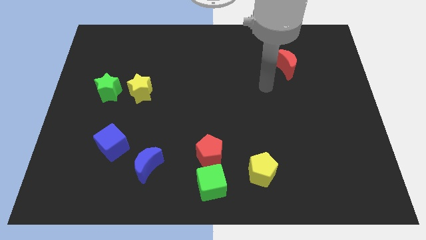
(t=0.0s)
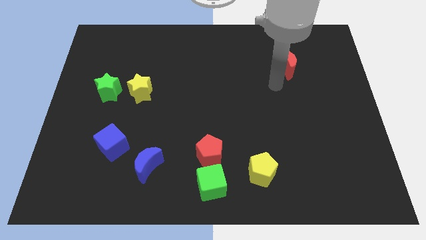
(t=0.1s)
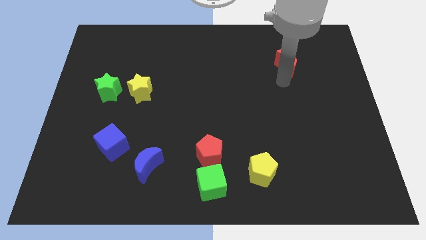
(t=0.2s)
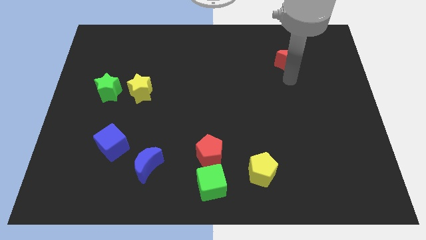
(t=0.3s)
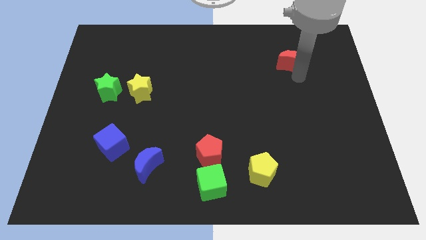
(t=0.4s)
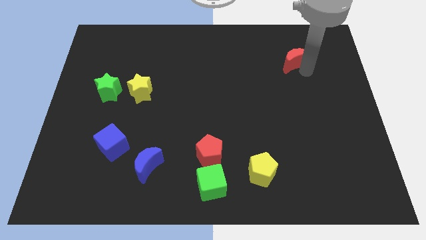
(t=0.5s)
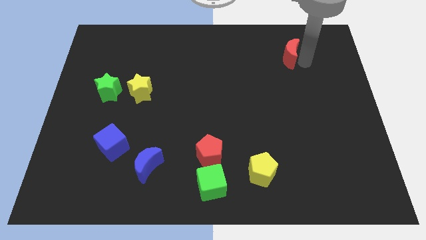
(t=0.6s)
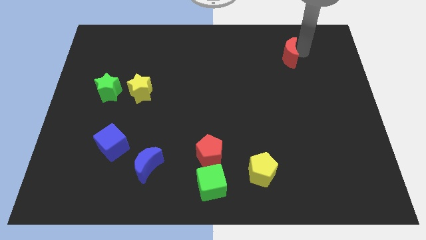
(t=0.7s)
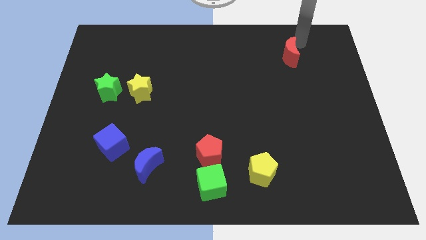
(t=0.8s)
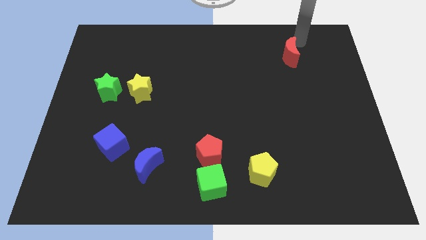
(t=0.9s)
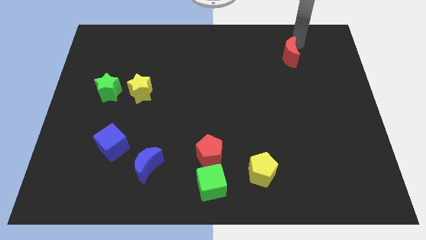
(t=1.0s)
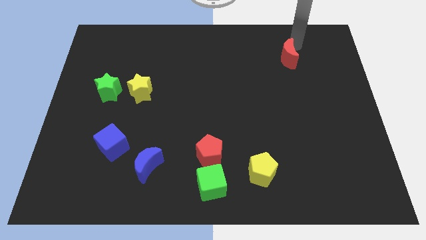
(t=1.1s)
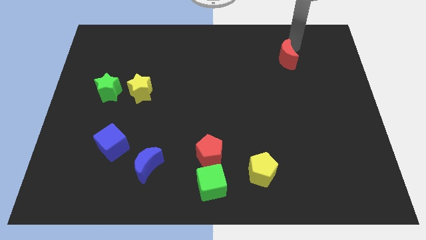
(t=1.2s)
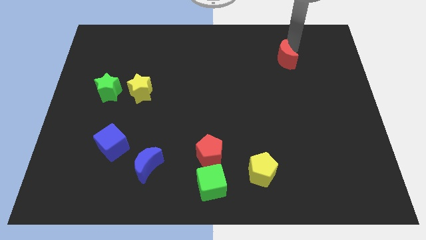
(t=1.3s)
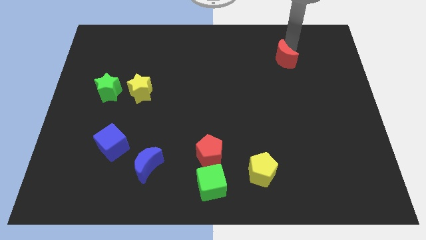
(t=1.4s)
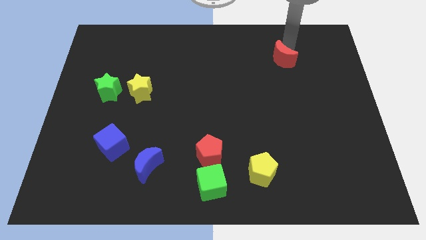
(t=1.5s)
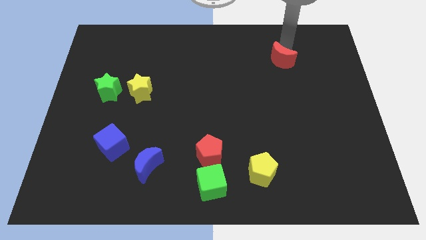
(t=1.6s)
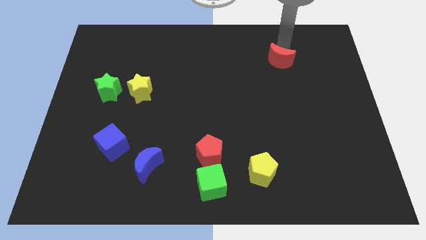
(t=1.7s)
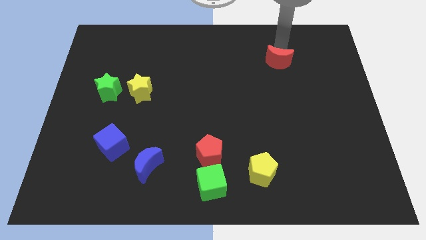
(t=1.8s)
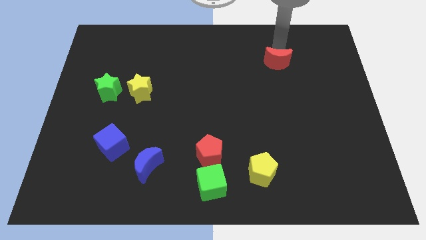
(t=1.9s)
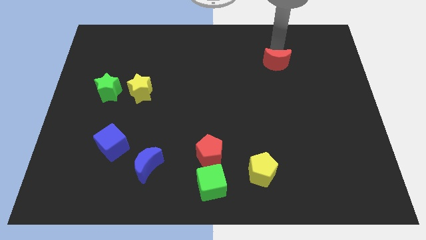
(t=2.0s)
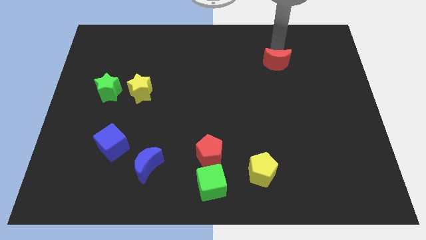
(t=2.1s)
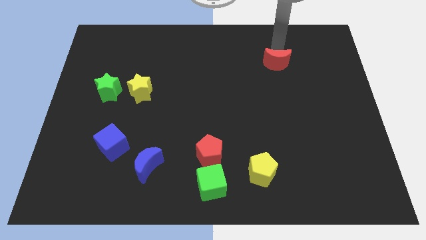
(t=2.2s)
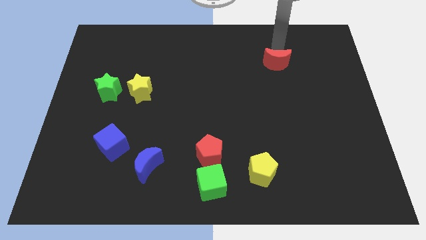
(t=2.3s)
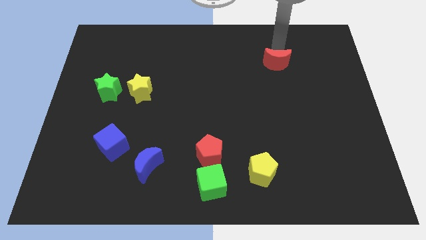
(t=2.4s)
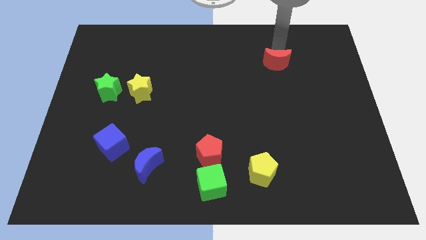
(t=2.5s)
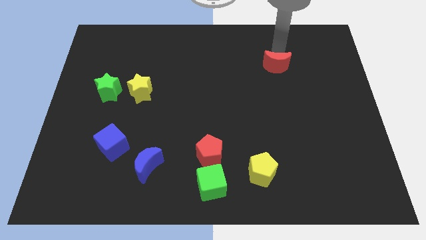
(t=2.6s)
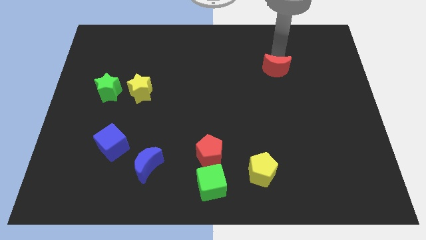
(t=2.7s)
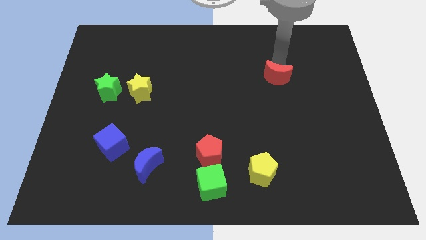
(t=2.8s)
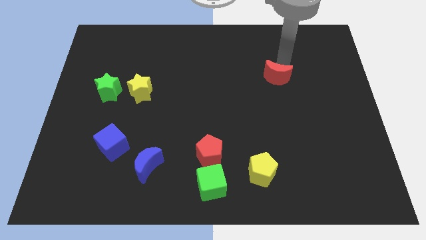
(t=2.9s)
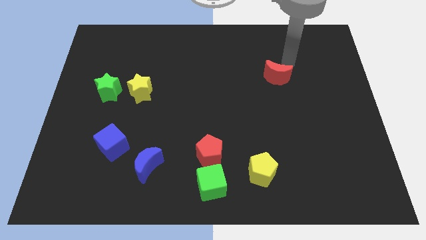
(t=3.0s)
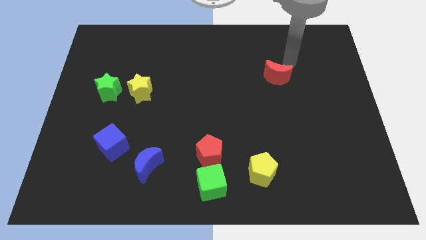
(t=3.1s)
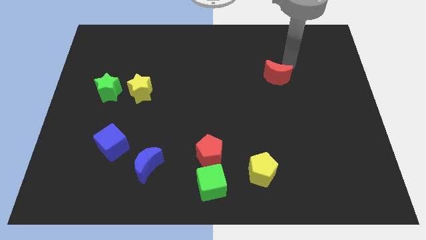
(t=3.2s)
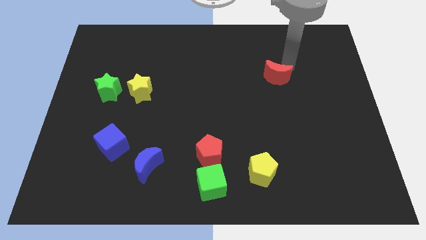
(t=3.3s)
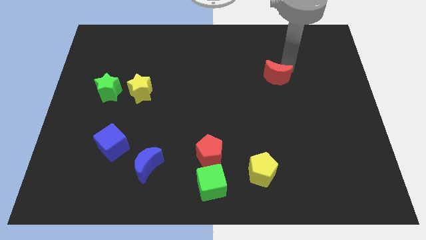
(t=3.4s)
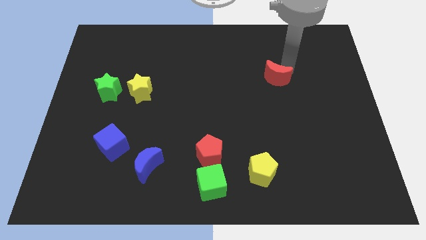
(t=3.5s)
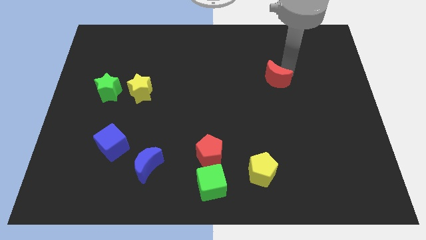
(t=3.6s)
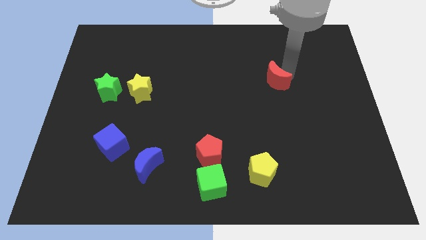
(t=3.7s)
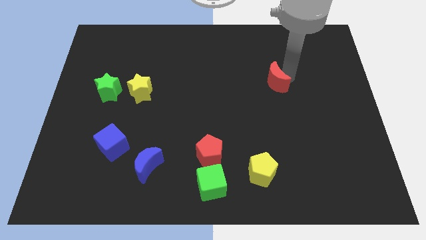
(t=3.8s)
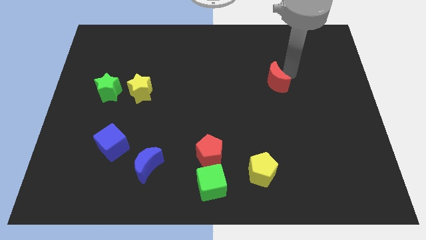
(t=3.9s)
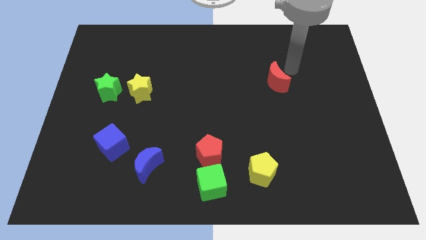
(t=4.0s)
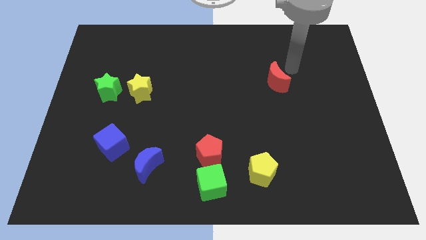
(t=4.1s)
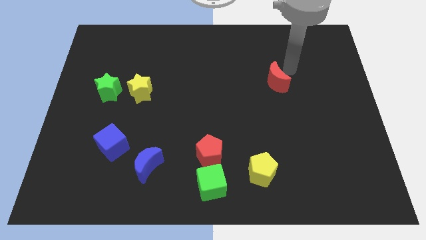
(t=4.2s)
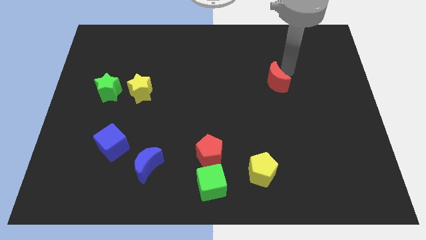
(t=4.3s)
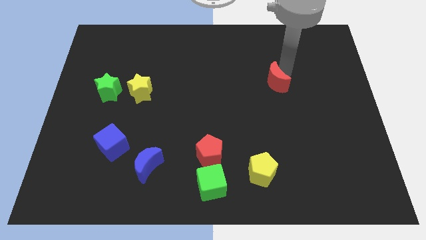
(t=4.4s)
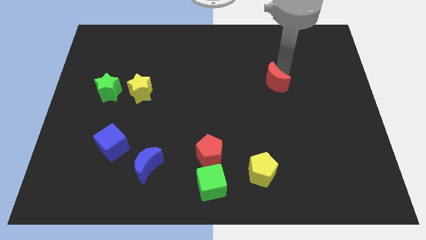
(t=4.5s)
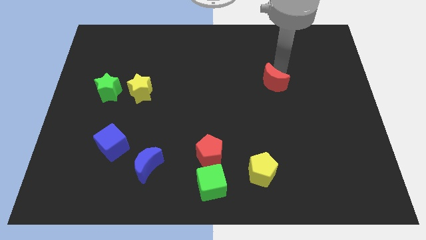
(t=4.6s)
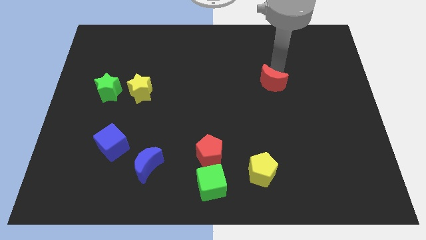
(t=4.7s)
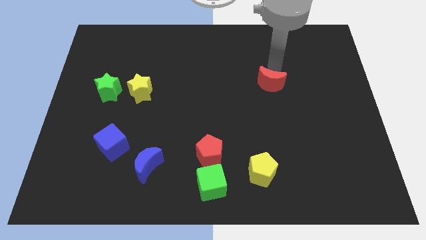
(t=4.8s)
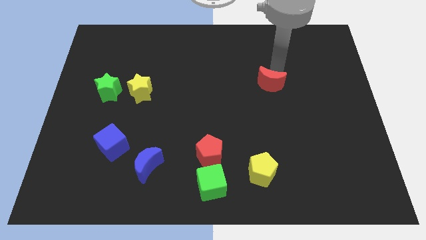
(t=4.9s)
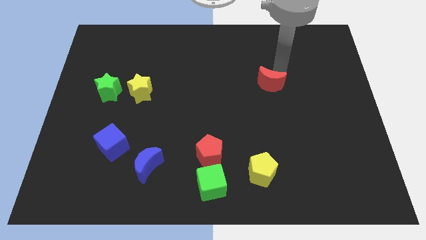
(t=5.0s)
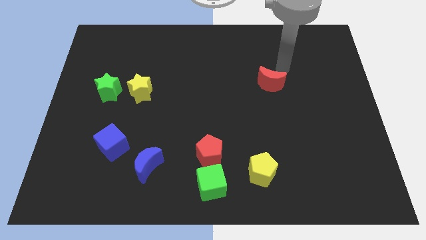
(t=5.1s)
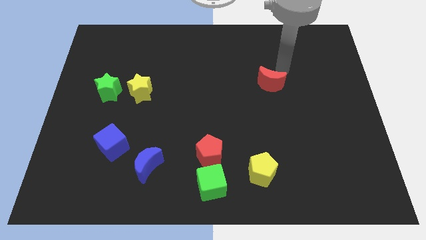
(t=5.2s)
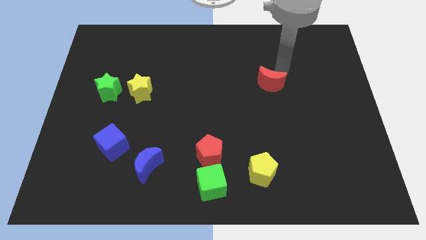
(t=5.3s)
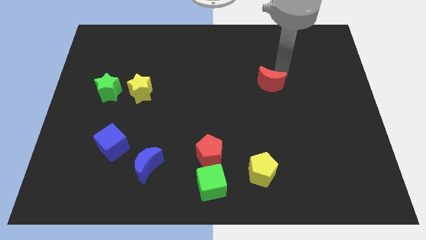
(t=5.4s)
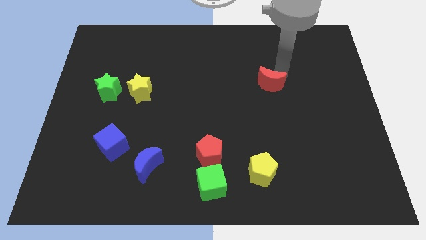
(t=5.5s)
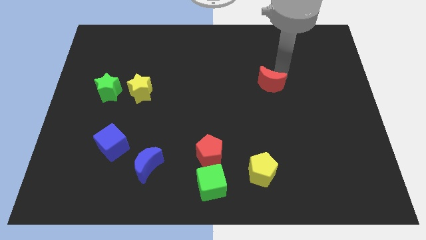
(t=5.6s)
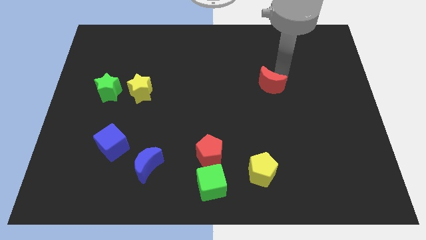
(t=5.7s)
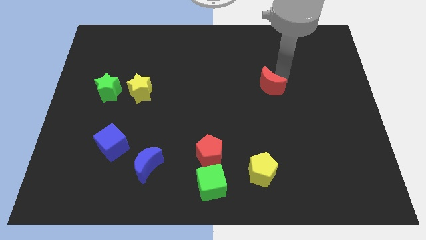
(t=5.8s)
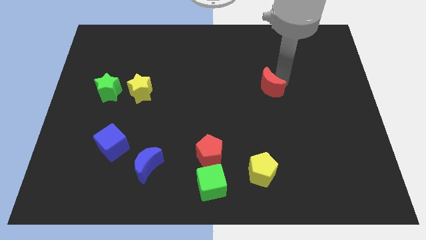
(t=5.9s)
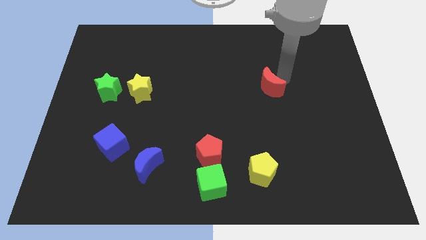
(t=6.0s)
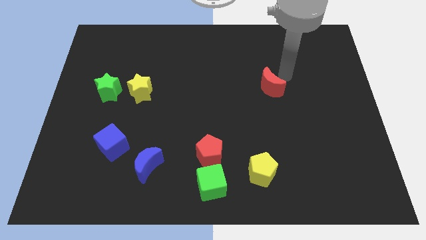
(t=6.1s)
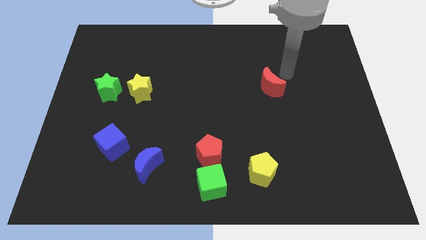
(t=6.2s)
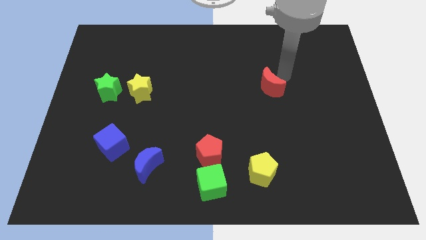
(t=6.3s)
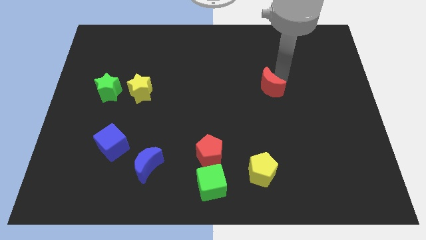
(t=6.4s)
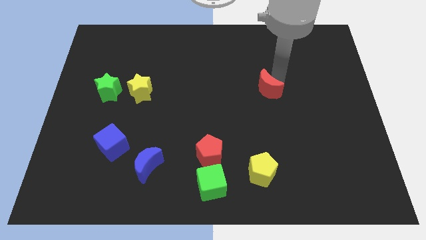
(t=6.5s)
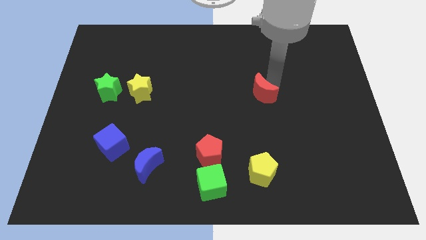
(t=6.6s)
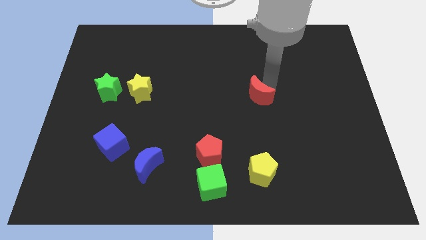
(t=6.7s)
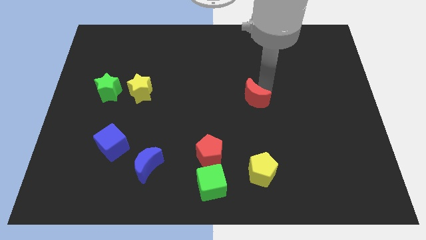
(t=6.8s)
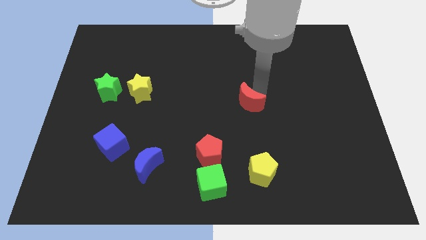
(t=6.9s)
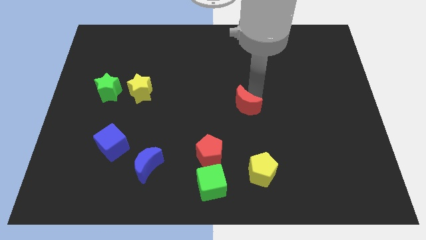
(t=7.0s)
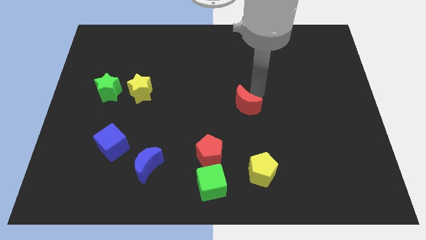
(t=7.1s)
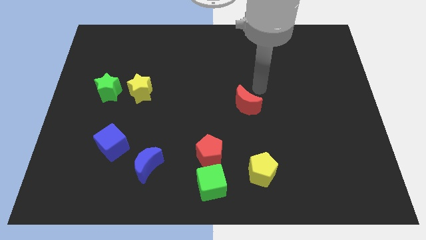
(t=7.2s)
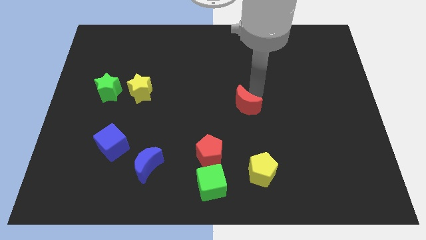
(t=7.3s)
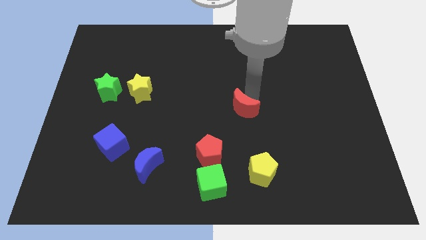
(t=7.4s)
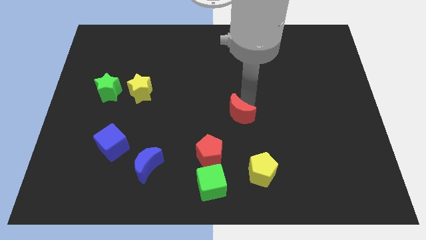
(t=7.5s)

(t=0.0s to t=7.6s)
slide the red moon down and to the left diagonally

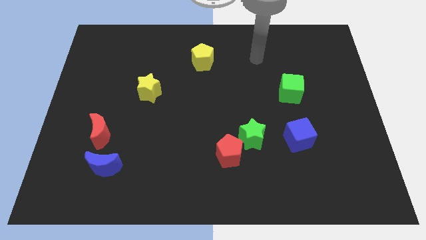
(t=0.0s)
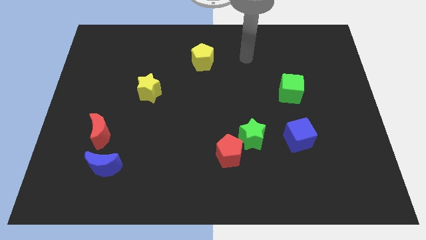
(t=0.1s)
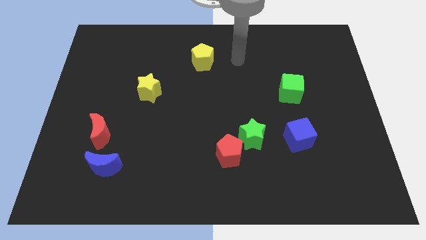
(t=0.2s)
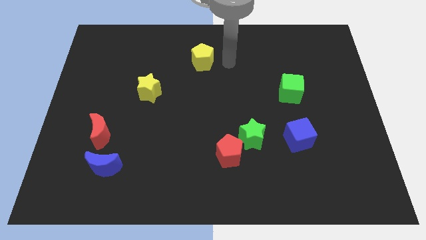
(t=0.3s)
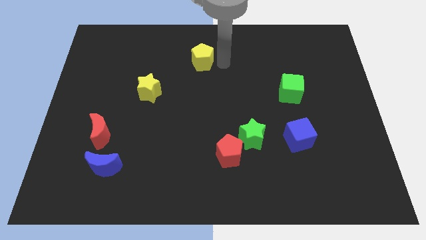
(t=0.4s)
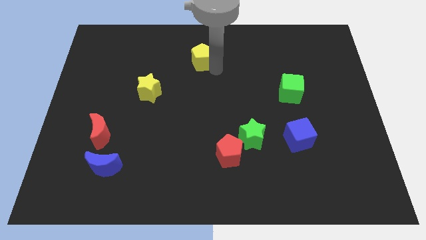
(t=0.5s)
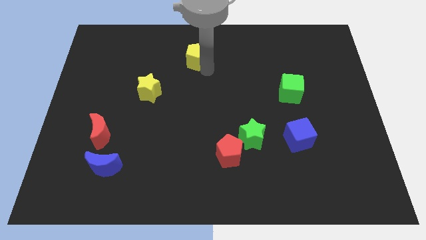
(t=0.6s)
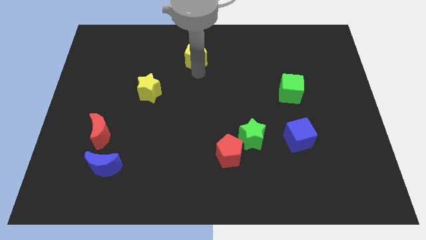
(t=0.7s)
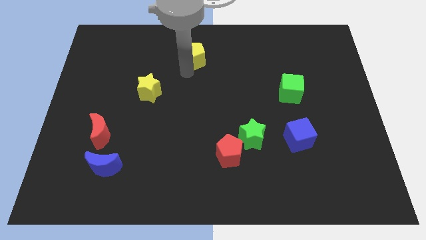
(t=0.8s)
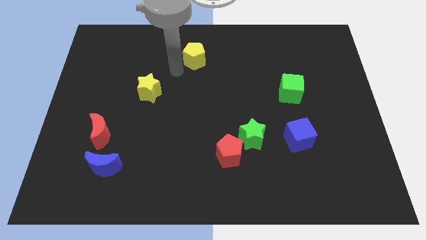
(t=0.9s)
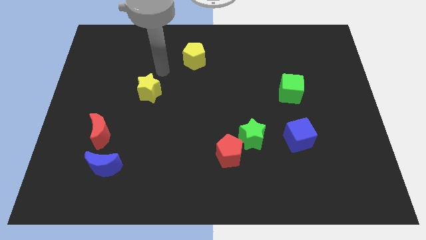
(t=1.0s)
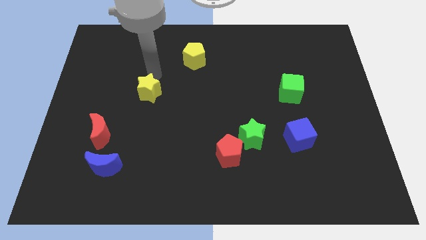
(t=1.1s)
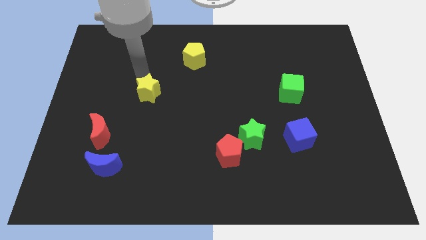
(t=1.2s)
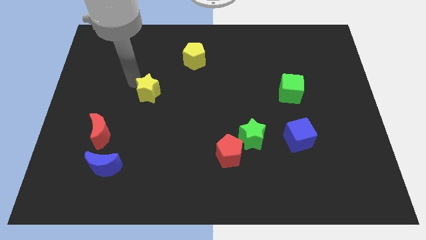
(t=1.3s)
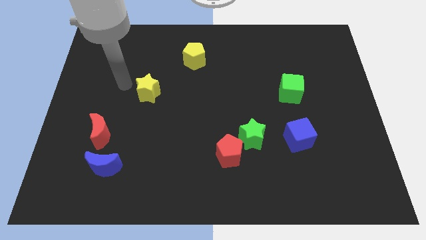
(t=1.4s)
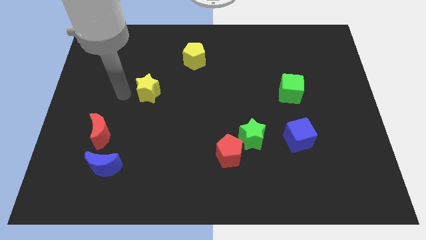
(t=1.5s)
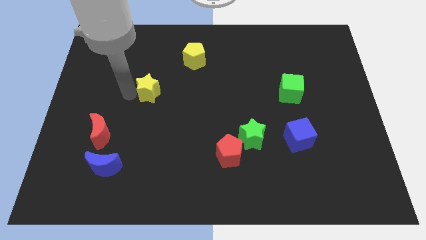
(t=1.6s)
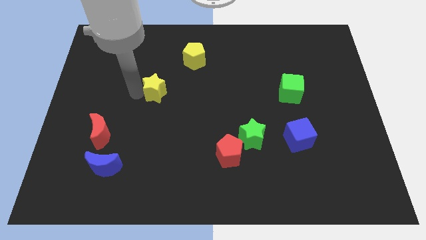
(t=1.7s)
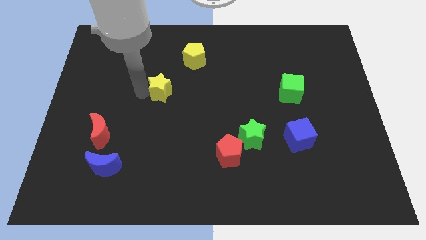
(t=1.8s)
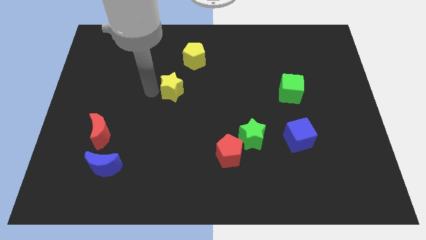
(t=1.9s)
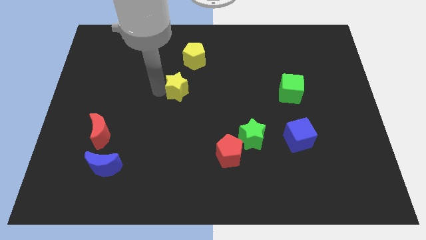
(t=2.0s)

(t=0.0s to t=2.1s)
slightly move the yellow star to the right
